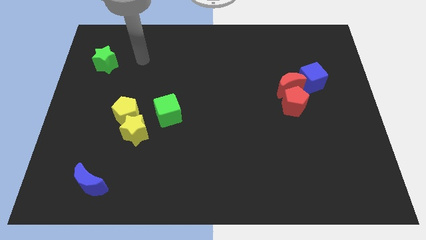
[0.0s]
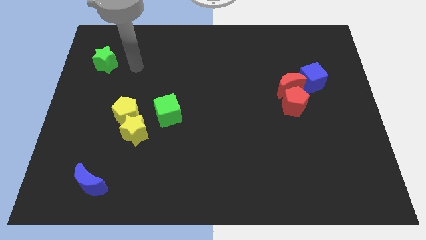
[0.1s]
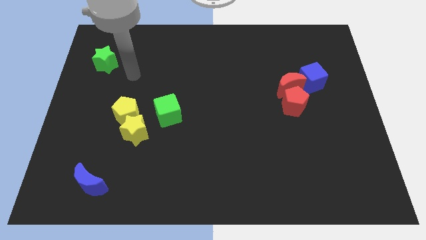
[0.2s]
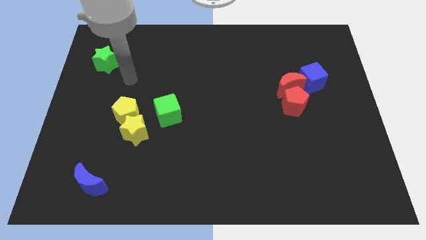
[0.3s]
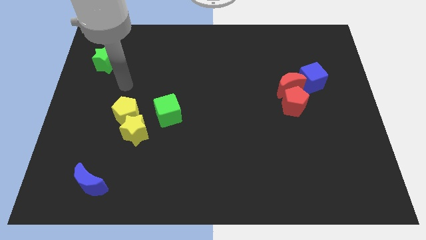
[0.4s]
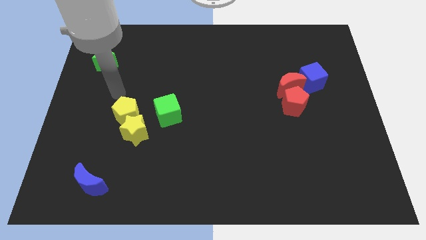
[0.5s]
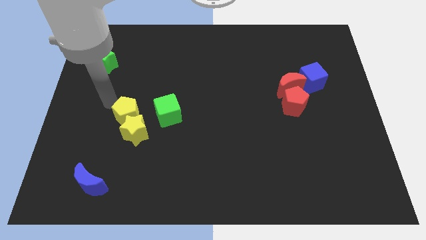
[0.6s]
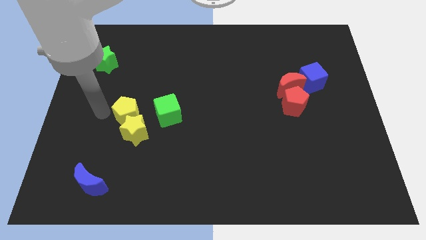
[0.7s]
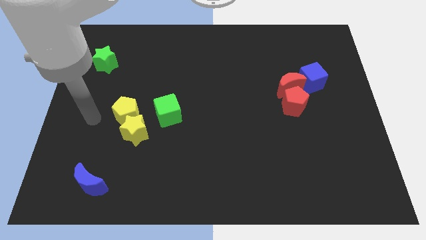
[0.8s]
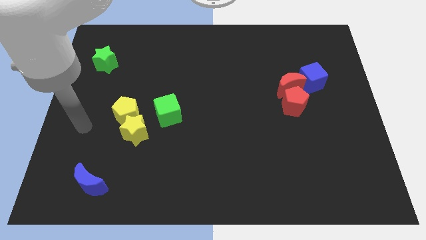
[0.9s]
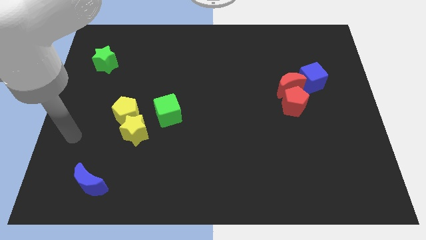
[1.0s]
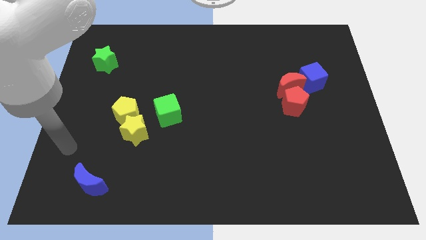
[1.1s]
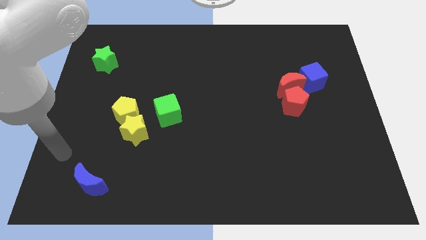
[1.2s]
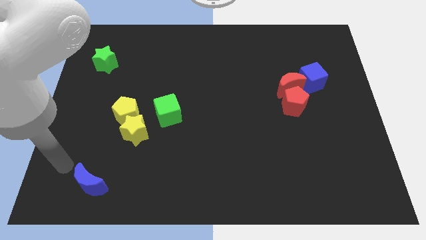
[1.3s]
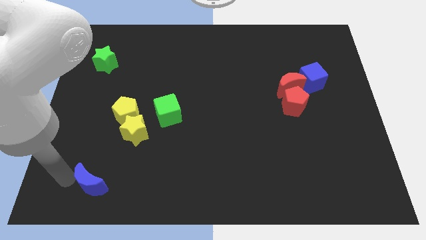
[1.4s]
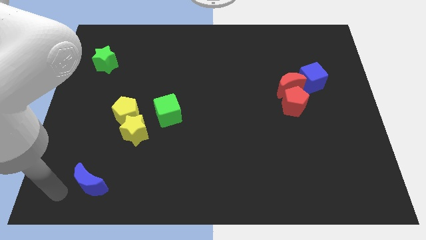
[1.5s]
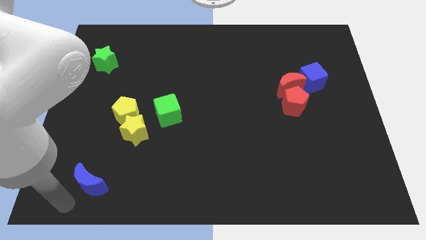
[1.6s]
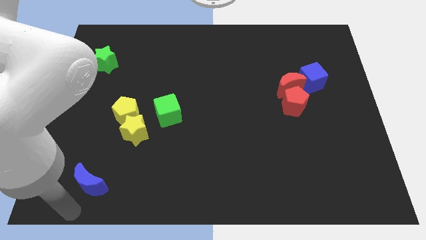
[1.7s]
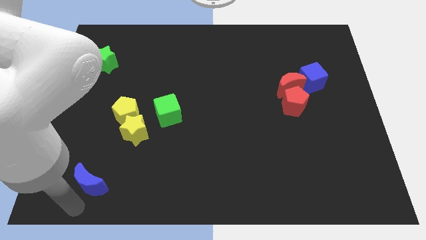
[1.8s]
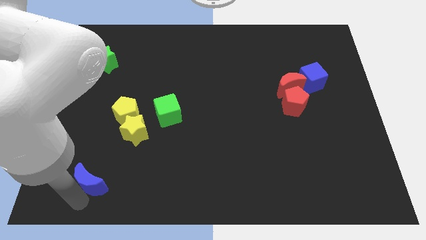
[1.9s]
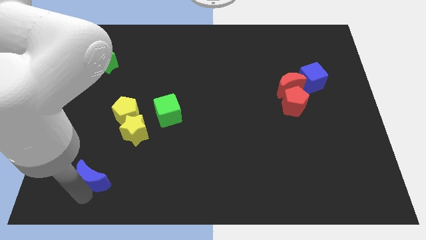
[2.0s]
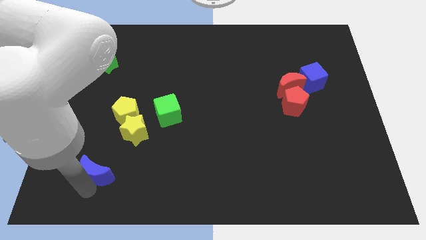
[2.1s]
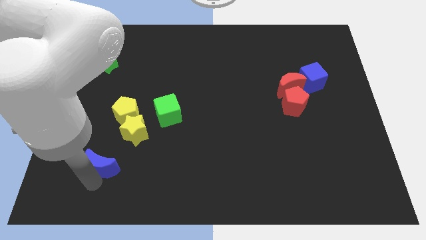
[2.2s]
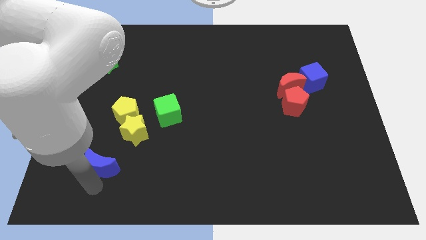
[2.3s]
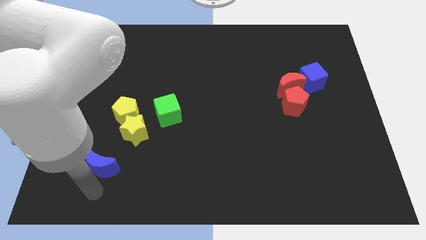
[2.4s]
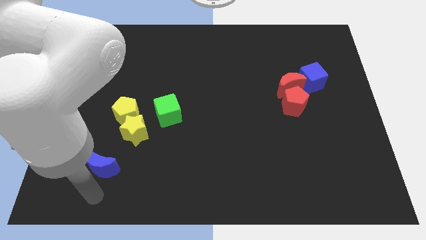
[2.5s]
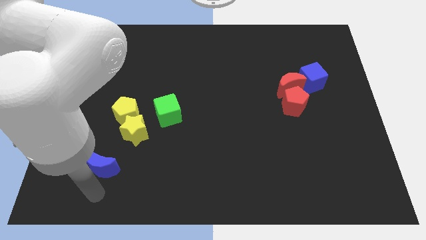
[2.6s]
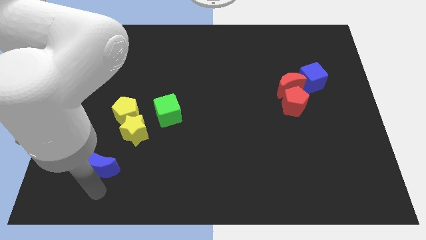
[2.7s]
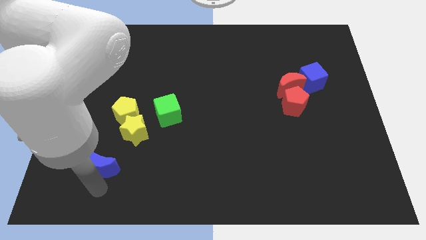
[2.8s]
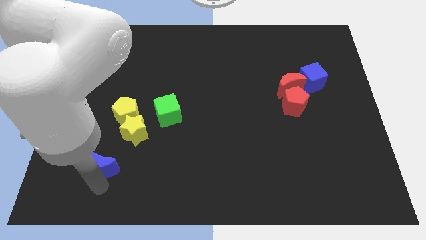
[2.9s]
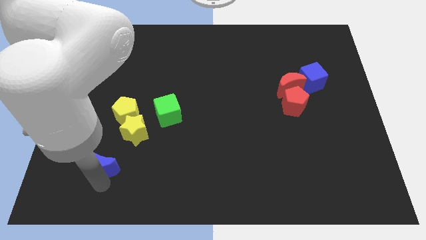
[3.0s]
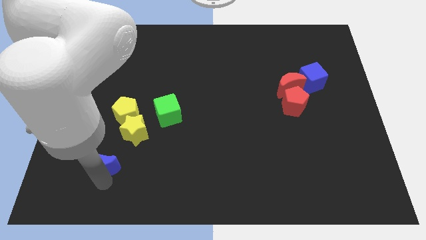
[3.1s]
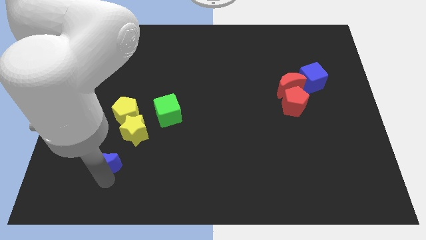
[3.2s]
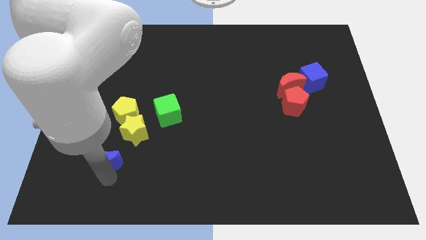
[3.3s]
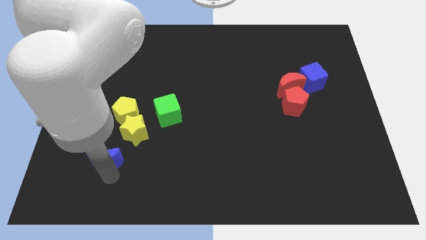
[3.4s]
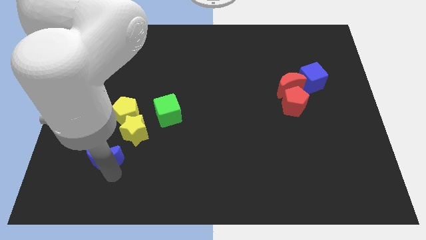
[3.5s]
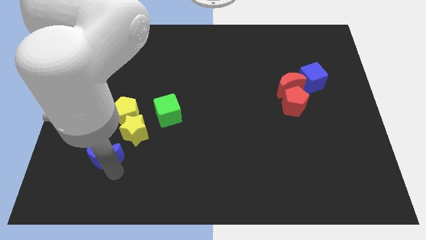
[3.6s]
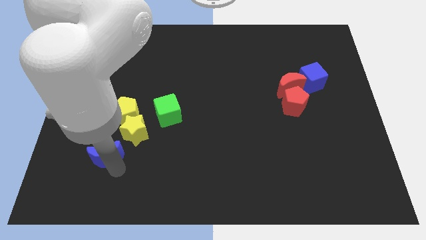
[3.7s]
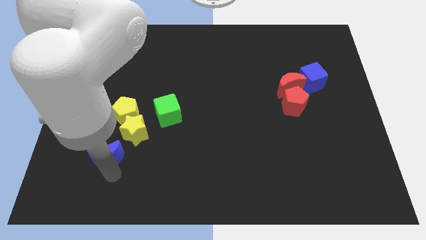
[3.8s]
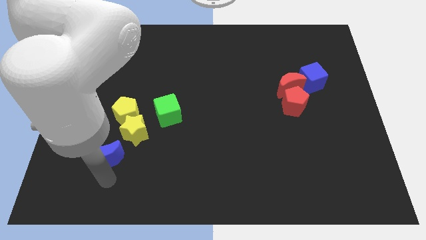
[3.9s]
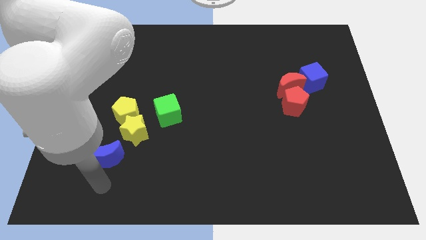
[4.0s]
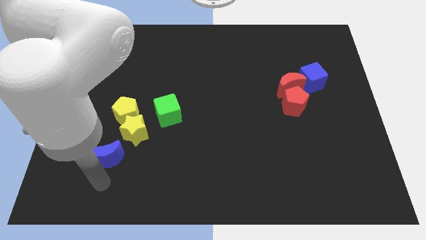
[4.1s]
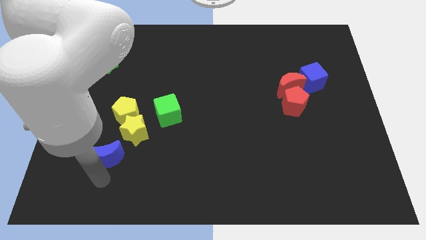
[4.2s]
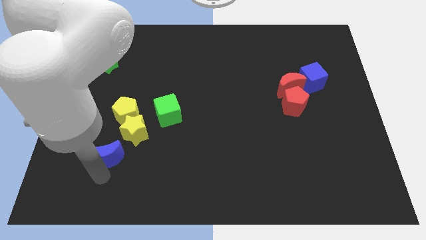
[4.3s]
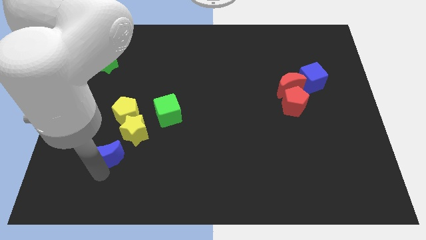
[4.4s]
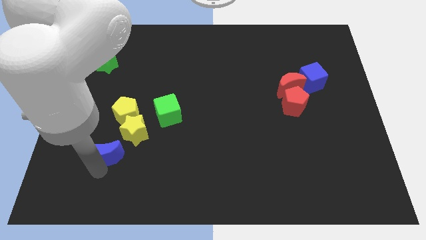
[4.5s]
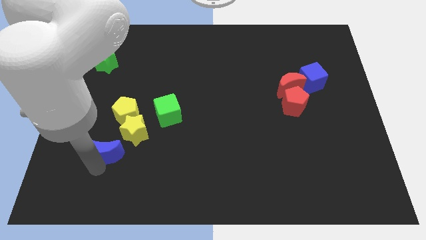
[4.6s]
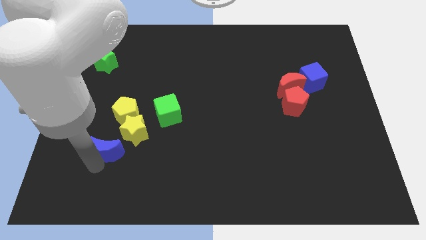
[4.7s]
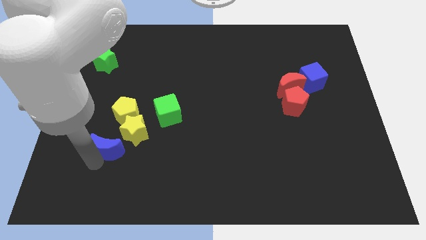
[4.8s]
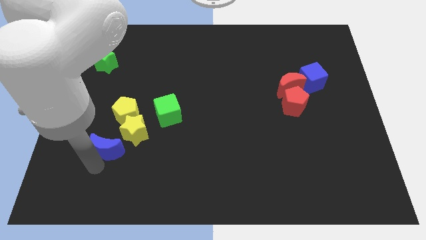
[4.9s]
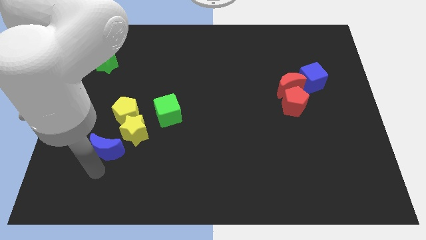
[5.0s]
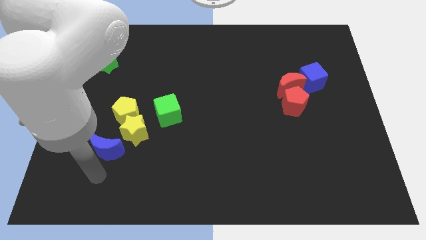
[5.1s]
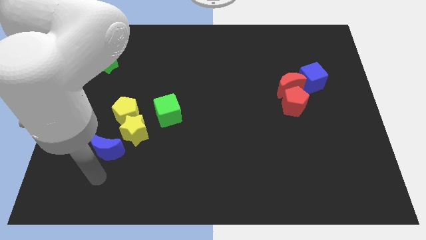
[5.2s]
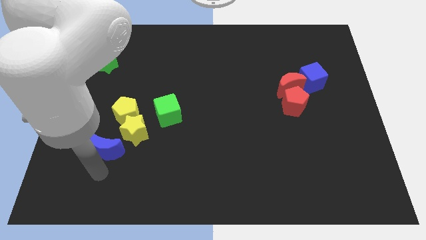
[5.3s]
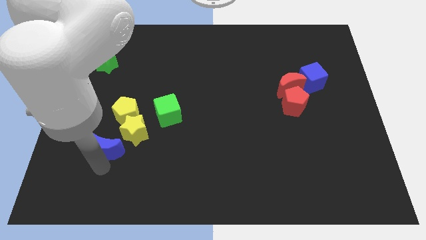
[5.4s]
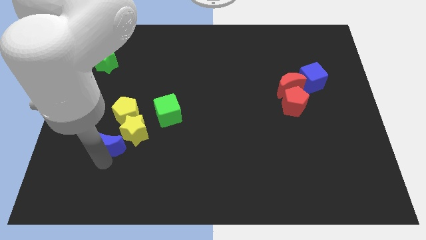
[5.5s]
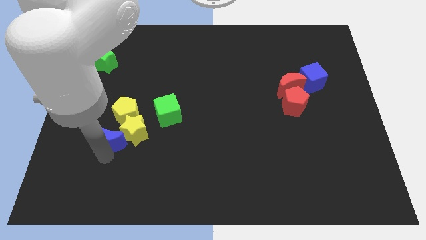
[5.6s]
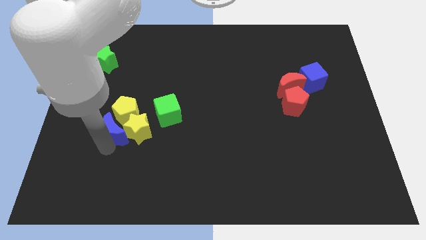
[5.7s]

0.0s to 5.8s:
put the blue moon to the yellow pentagon

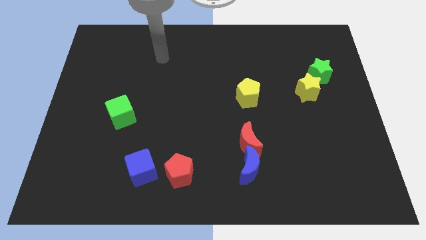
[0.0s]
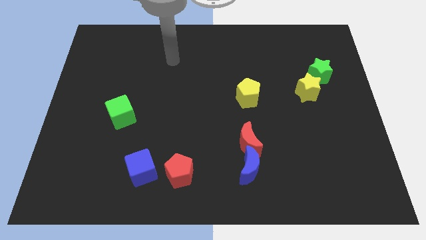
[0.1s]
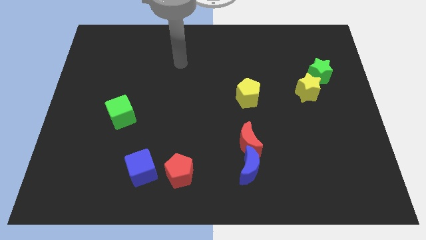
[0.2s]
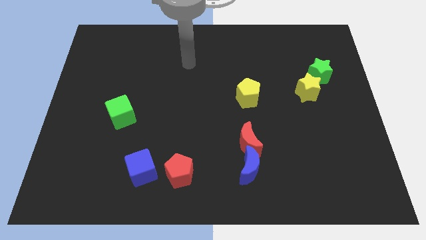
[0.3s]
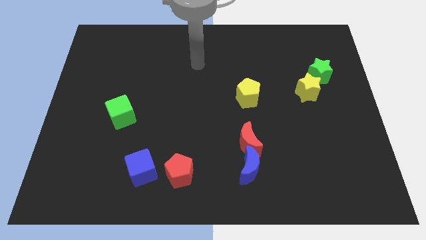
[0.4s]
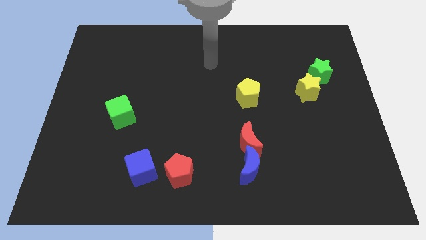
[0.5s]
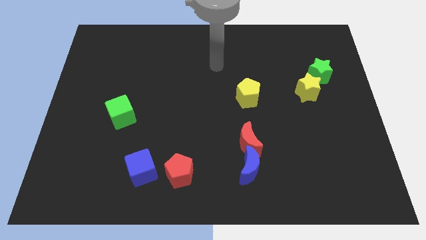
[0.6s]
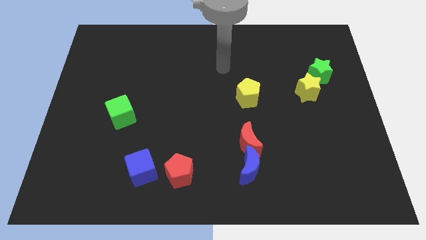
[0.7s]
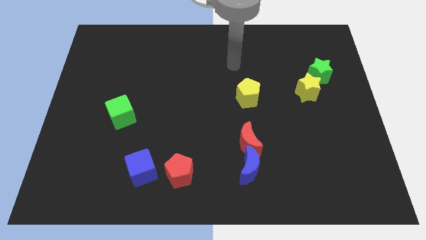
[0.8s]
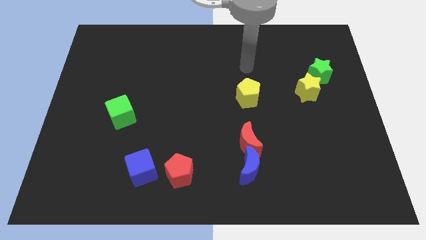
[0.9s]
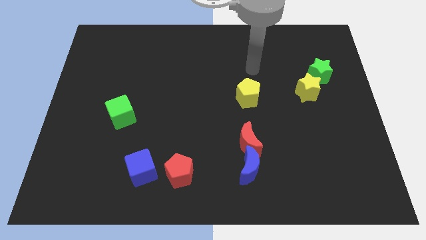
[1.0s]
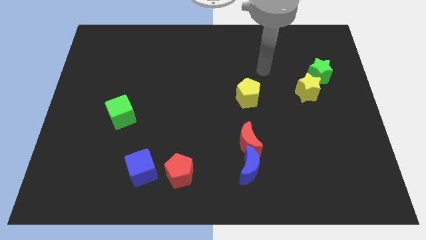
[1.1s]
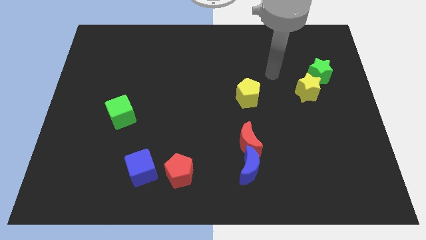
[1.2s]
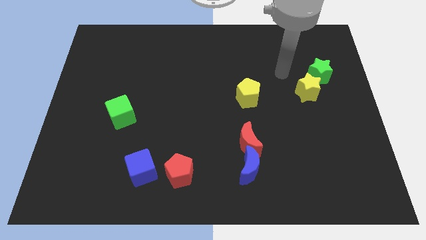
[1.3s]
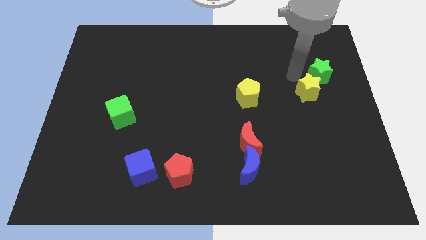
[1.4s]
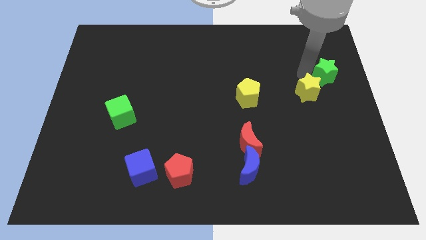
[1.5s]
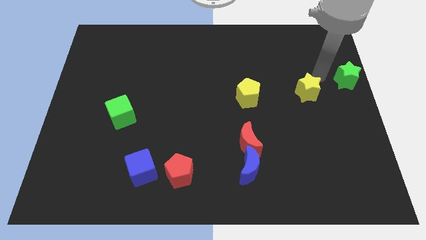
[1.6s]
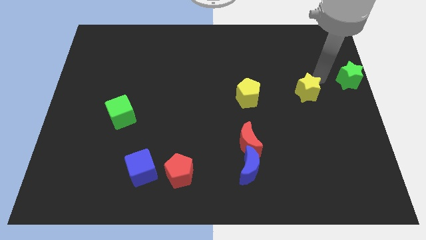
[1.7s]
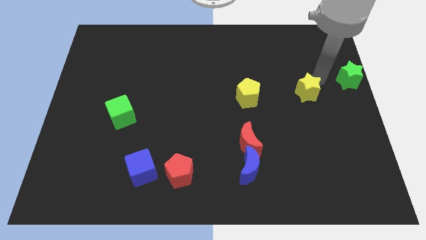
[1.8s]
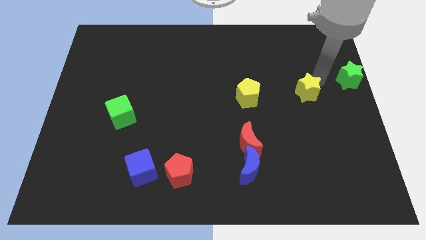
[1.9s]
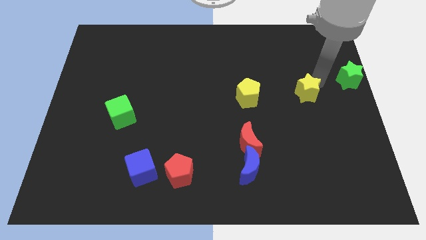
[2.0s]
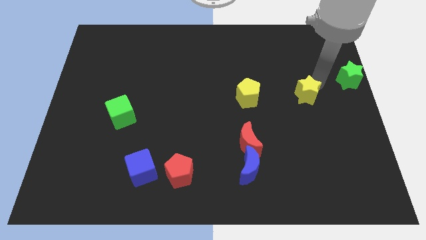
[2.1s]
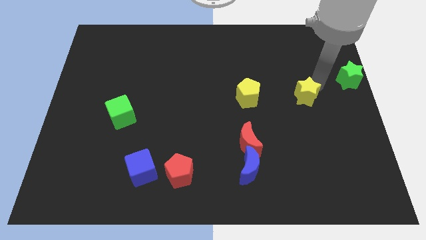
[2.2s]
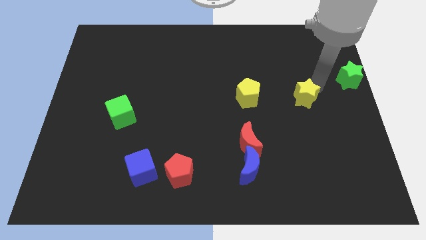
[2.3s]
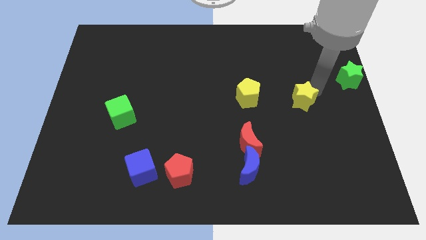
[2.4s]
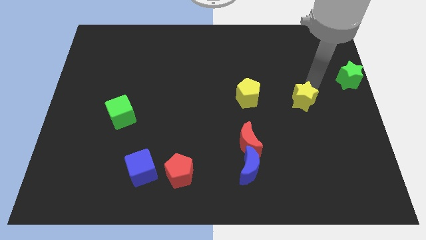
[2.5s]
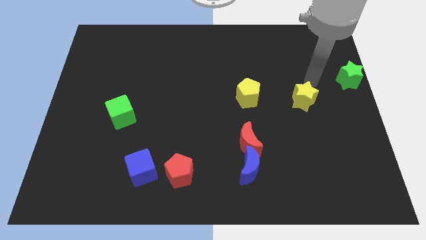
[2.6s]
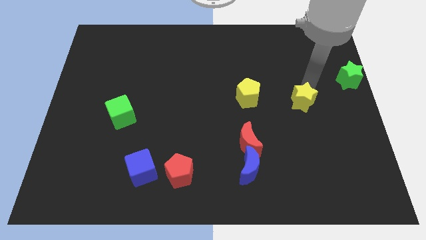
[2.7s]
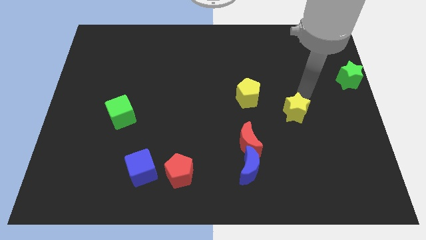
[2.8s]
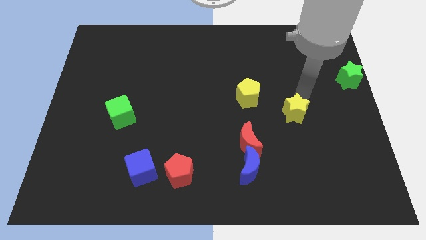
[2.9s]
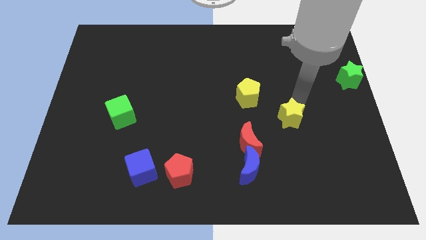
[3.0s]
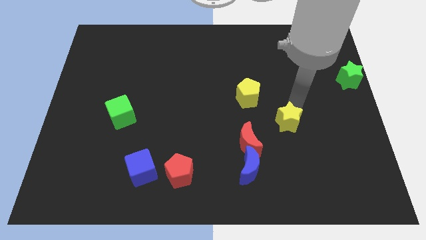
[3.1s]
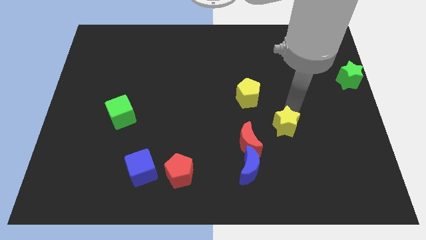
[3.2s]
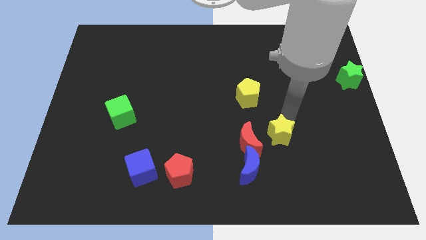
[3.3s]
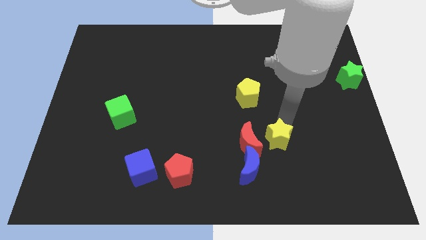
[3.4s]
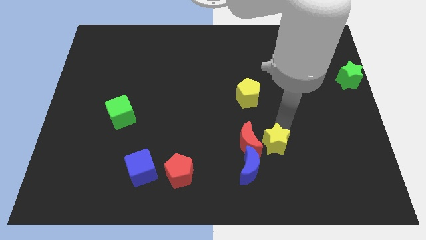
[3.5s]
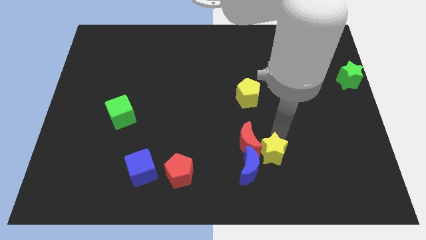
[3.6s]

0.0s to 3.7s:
push the yellow star next to the blue moon
